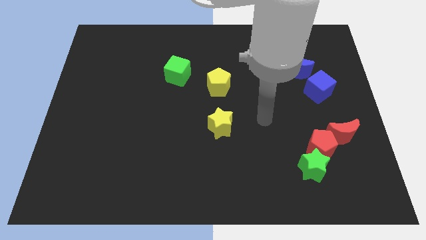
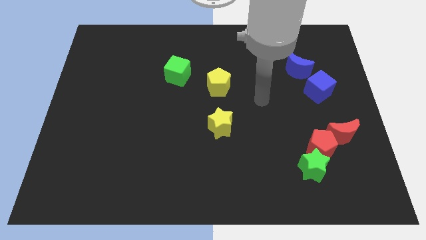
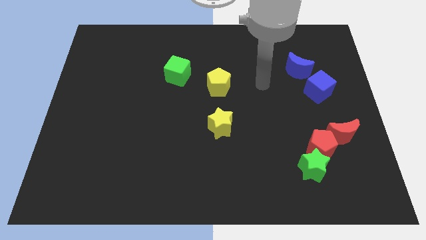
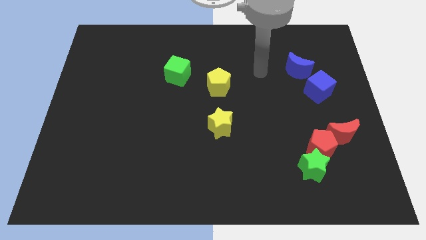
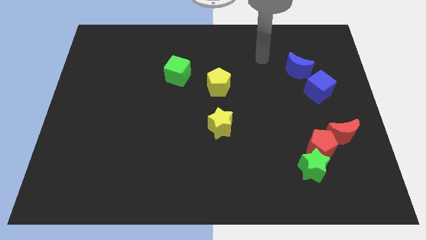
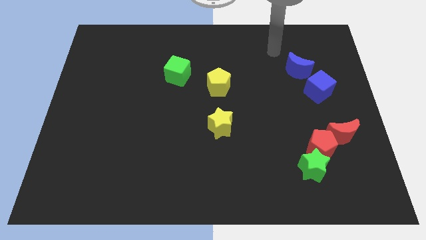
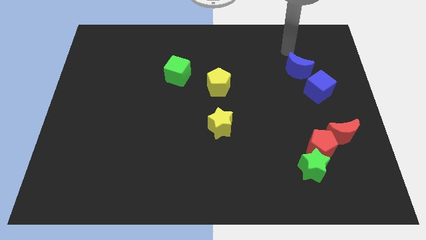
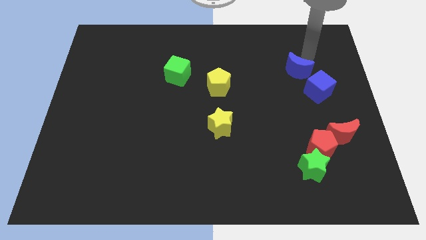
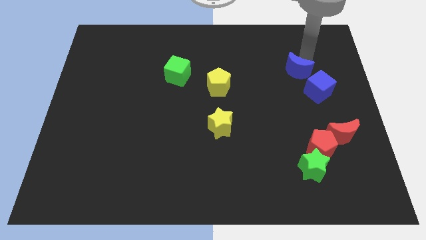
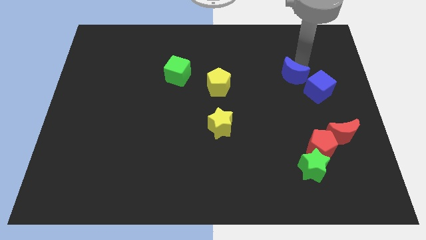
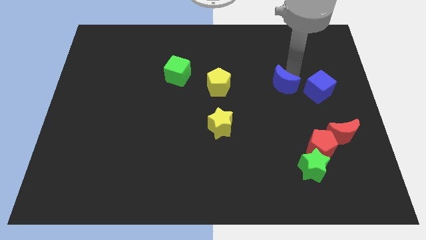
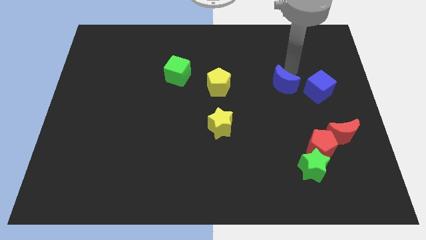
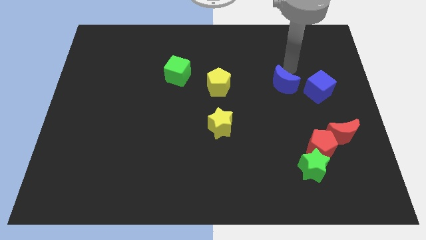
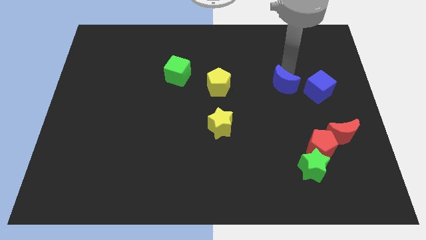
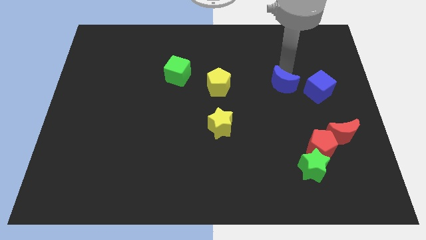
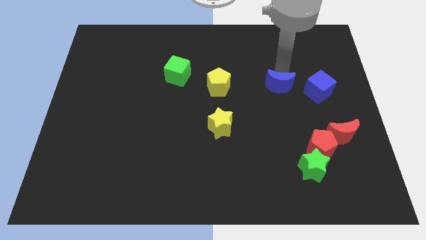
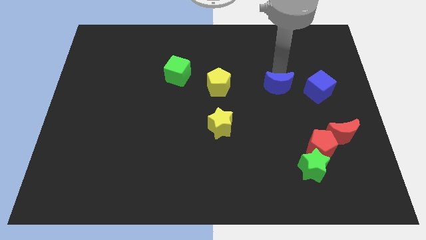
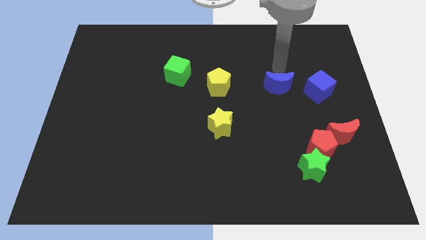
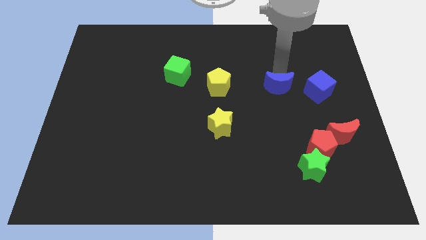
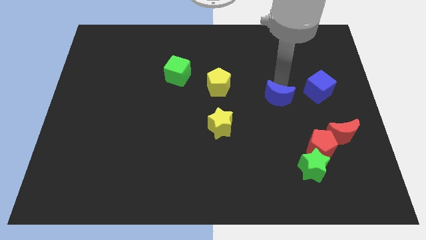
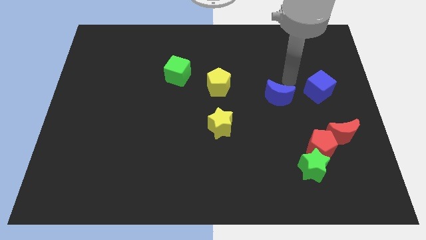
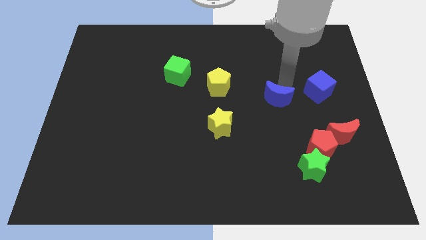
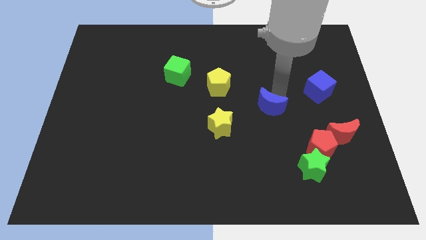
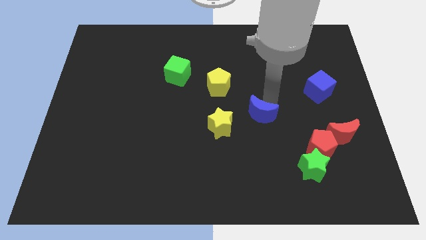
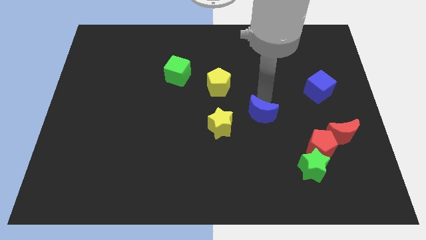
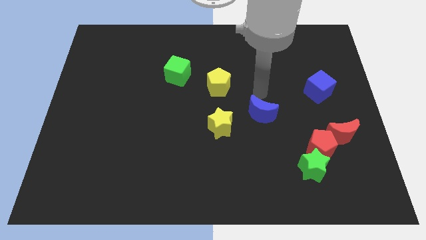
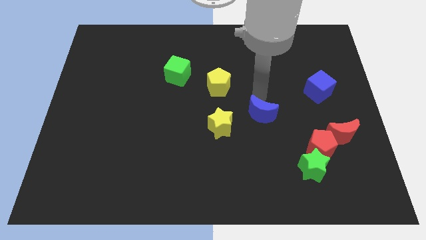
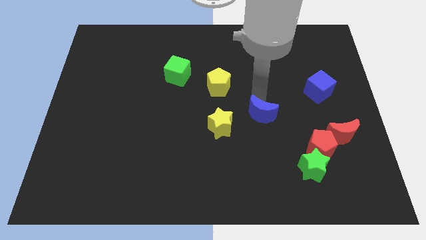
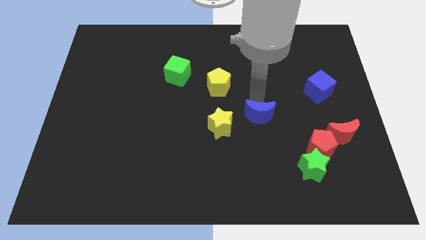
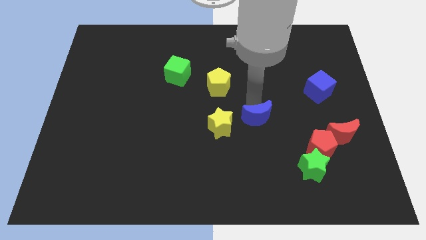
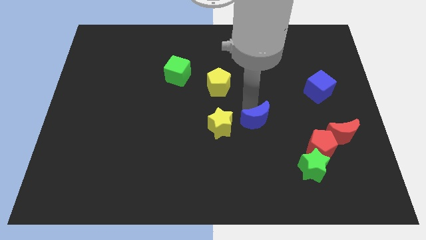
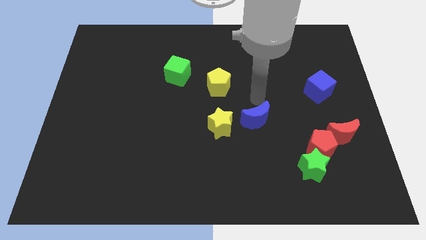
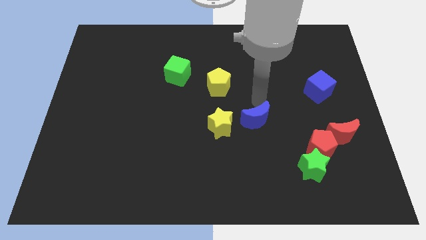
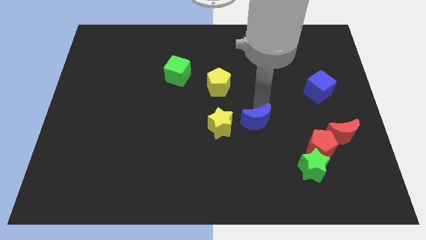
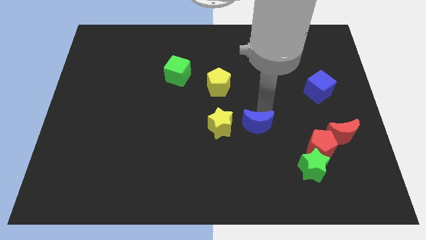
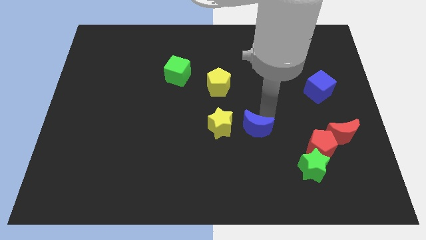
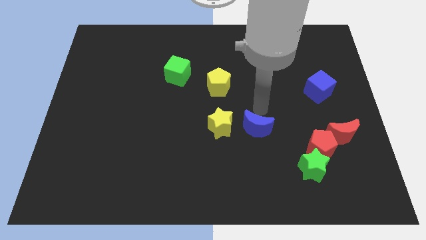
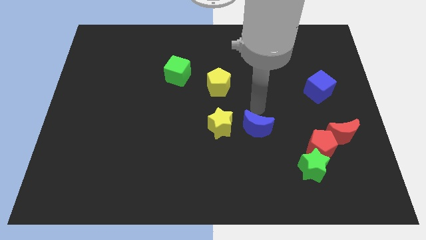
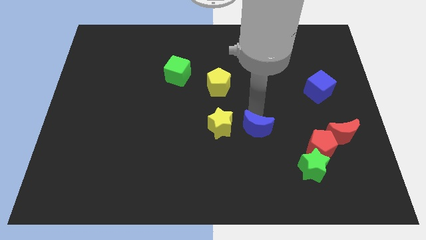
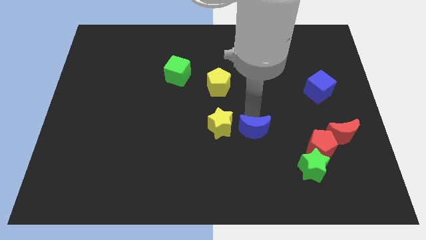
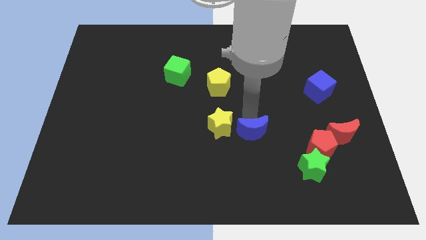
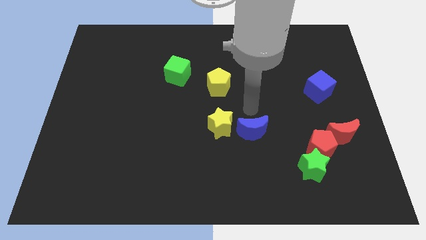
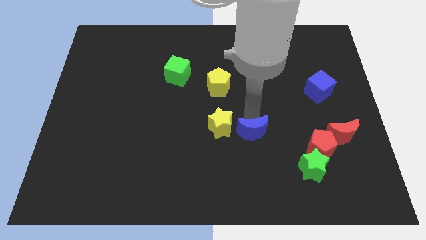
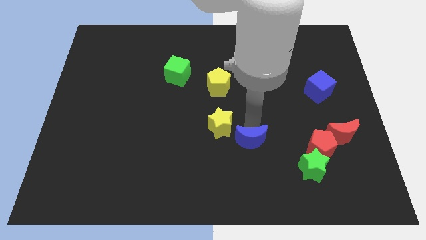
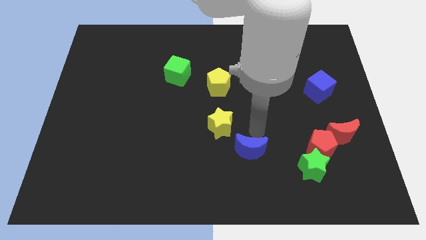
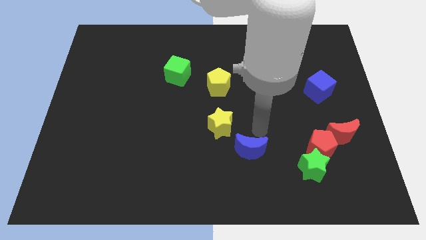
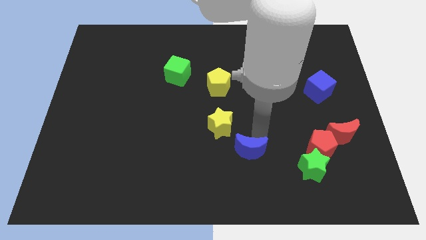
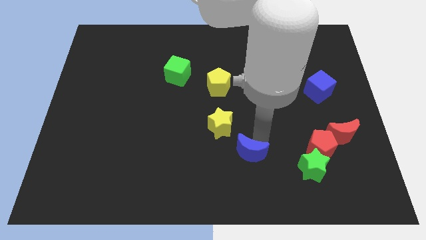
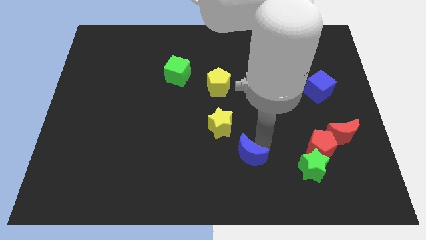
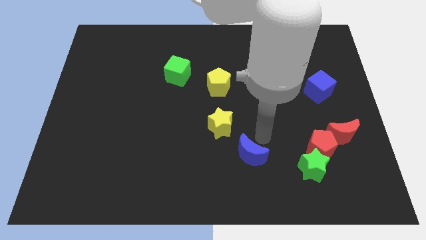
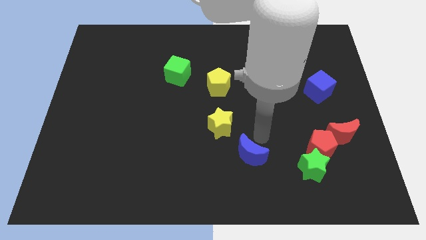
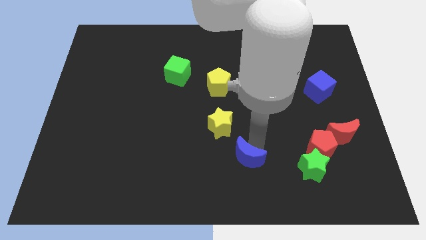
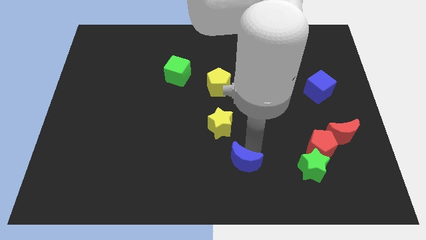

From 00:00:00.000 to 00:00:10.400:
push the blue moon to the bottom side

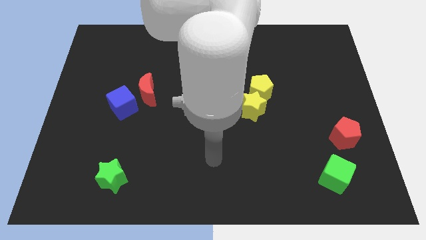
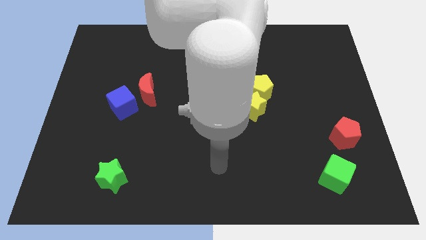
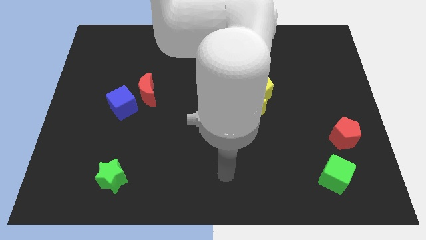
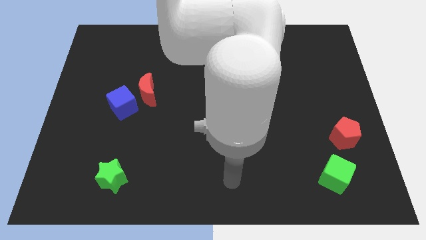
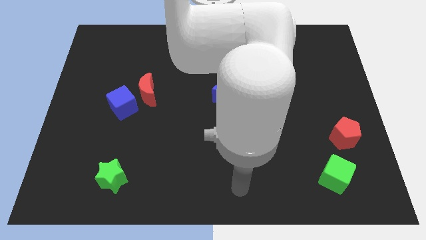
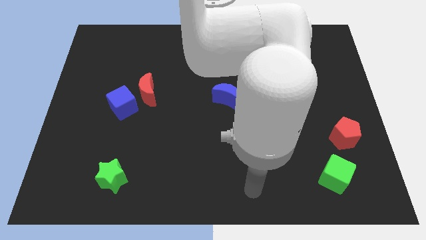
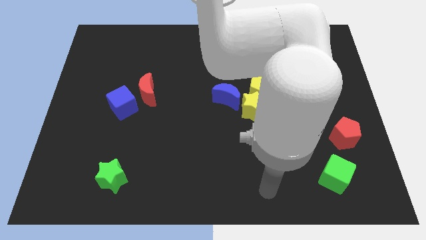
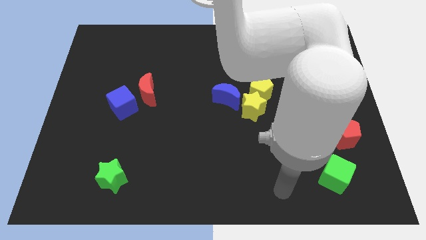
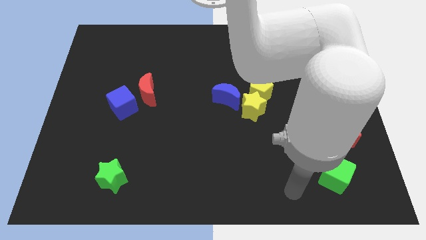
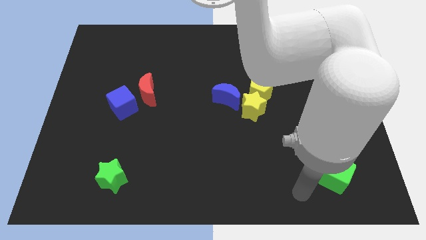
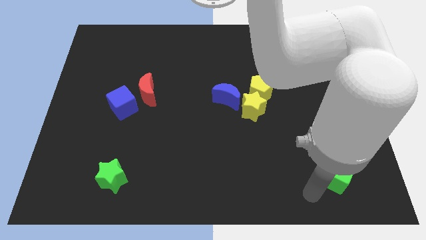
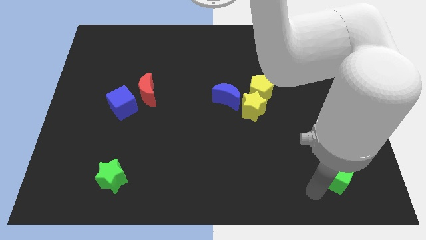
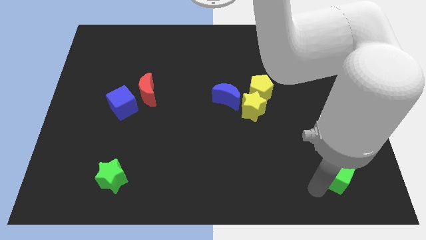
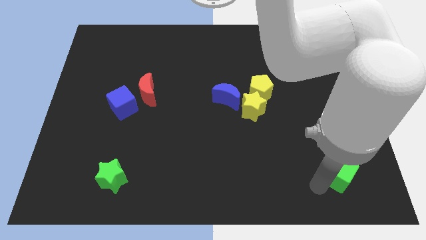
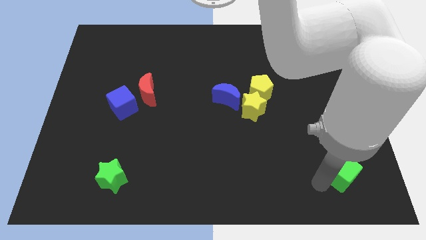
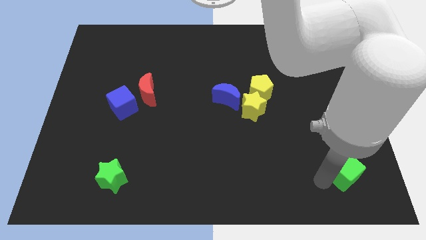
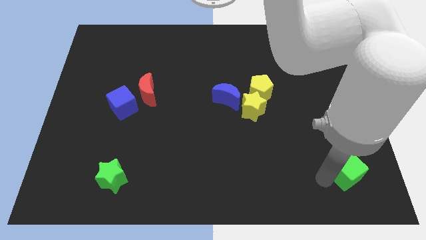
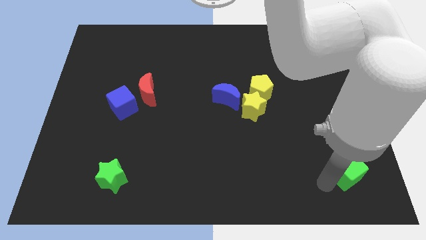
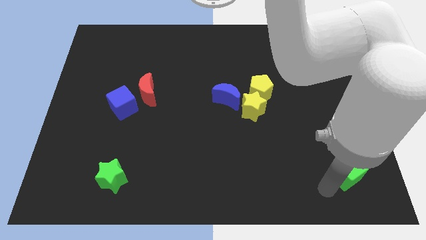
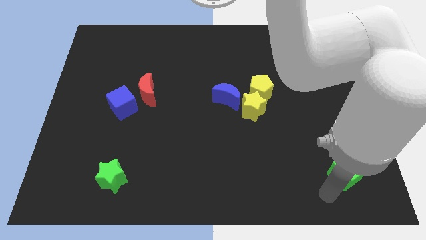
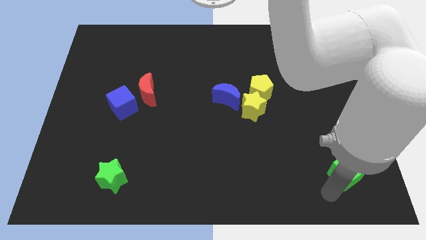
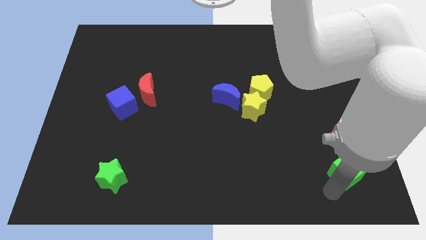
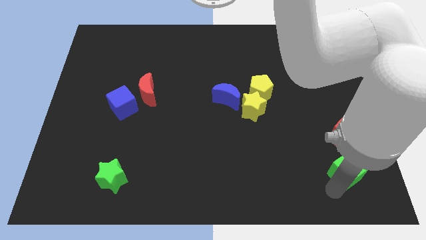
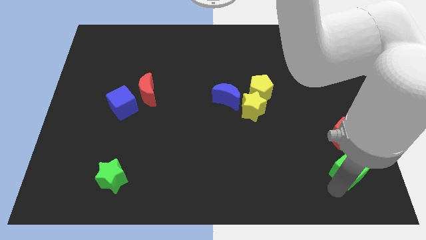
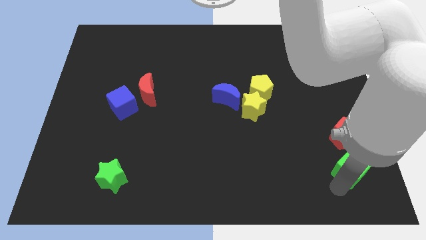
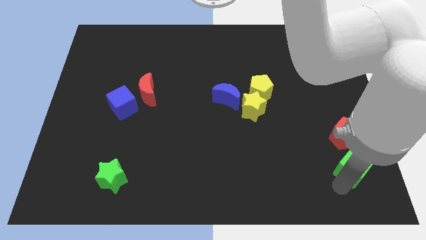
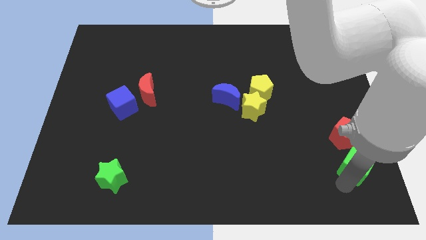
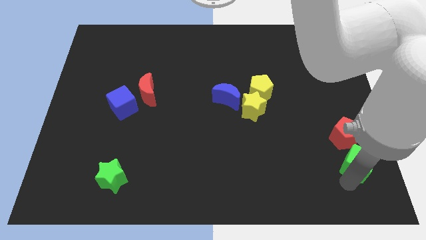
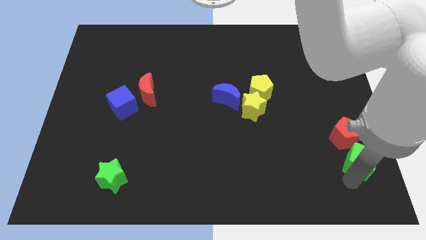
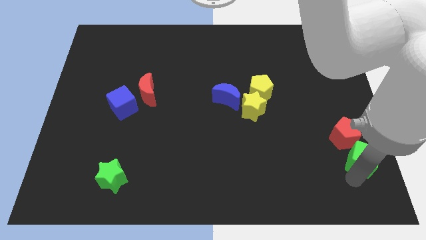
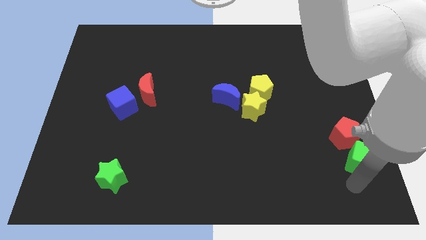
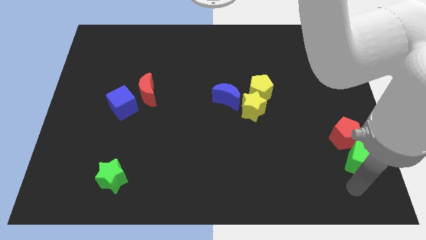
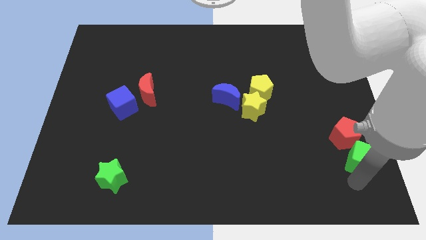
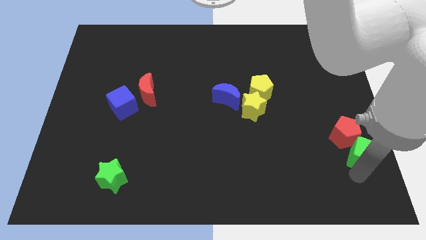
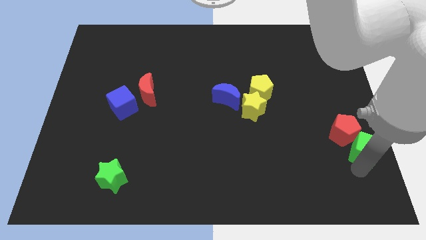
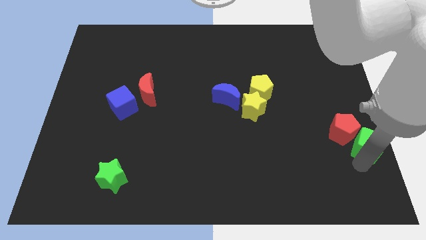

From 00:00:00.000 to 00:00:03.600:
push the green cube to the right side of the board
